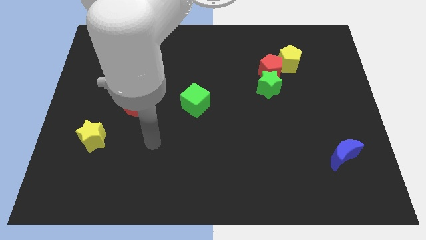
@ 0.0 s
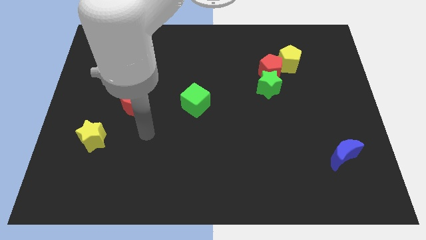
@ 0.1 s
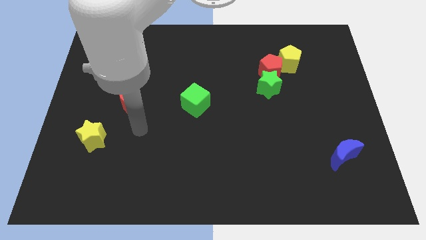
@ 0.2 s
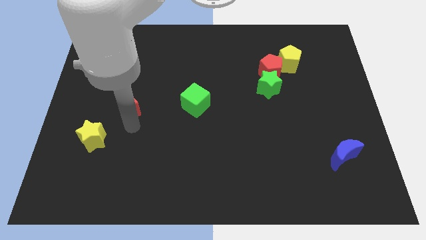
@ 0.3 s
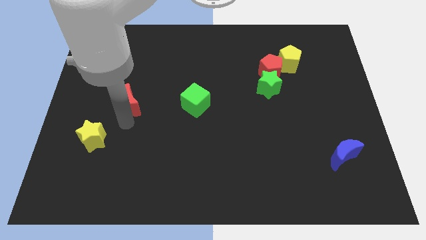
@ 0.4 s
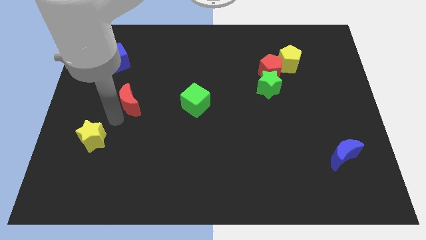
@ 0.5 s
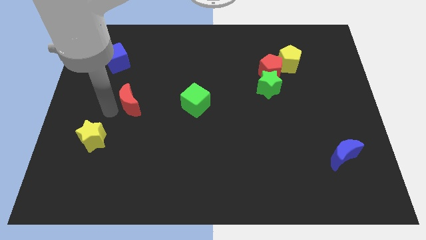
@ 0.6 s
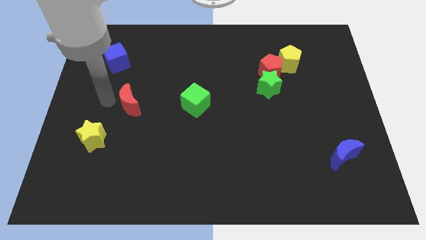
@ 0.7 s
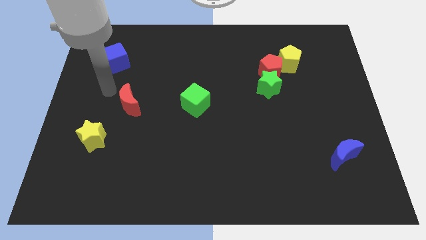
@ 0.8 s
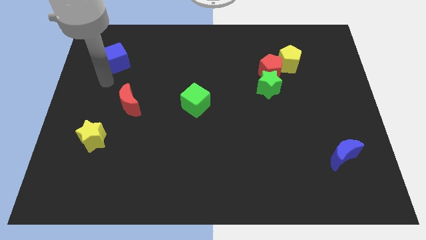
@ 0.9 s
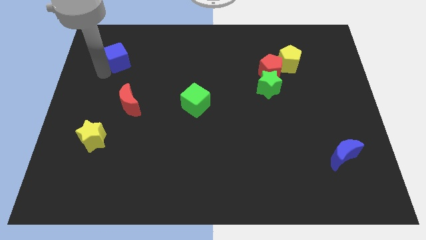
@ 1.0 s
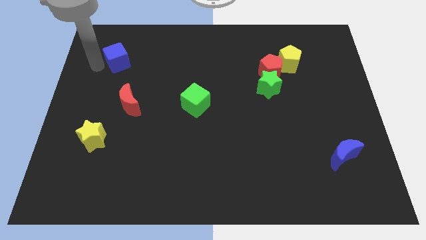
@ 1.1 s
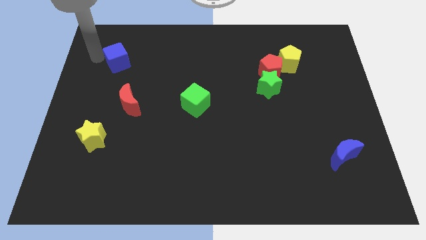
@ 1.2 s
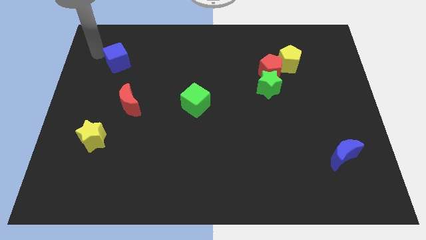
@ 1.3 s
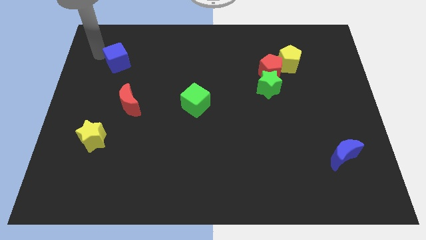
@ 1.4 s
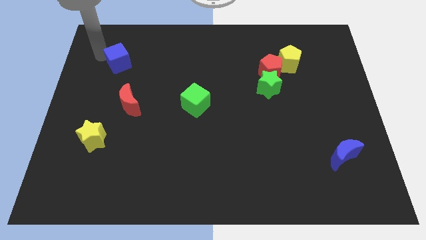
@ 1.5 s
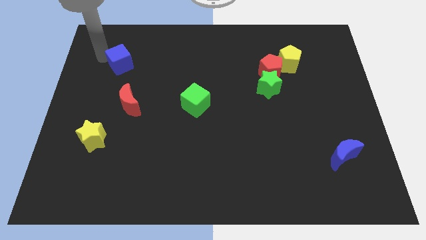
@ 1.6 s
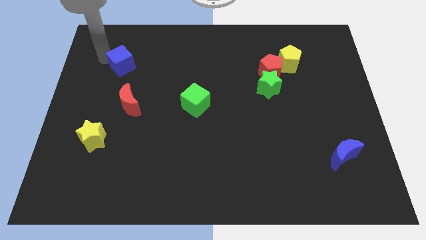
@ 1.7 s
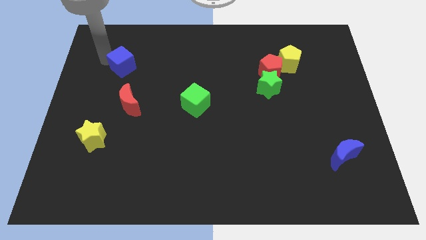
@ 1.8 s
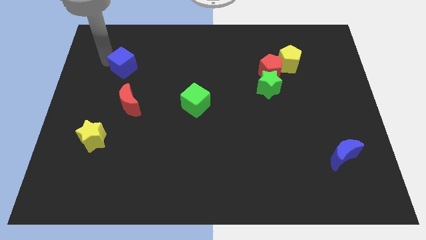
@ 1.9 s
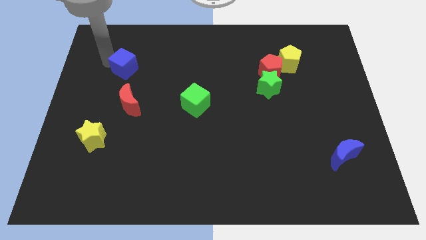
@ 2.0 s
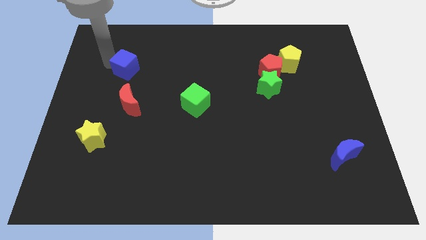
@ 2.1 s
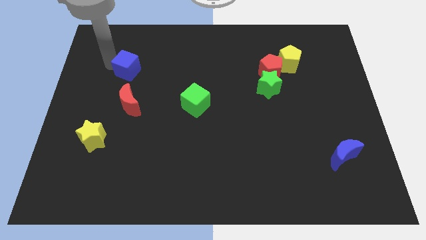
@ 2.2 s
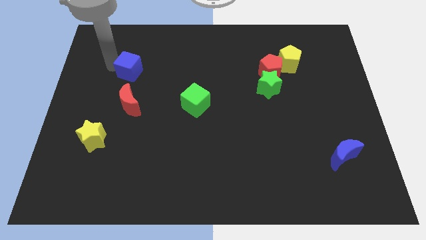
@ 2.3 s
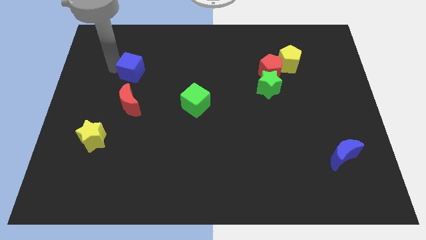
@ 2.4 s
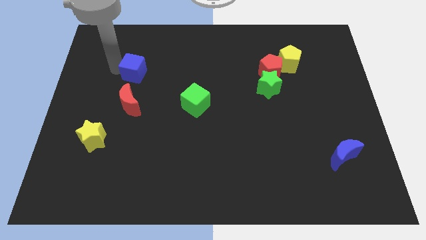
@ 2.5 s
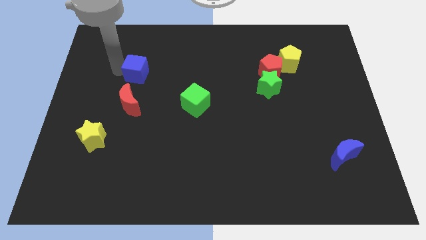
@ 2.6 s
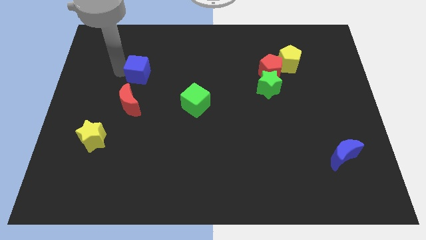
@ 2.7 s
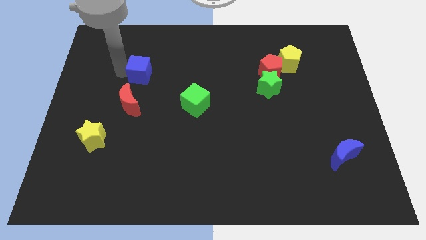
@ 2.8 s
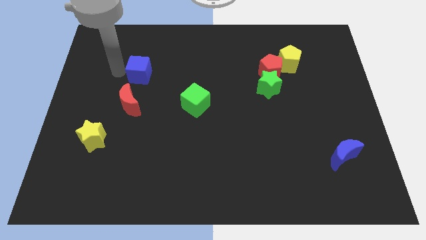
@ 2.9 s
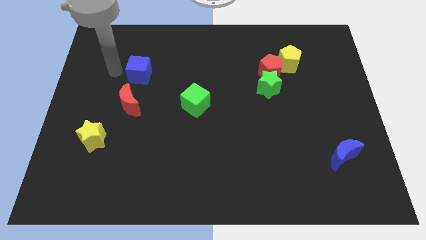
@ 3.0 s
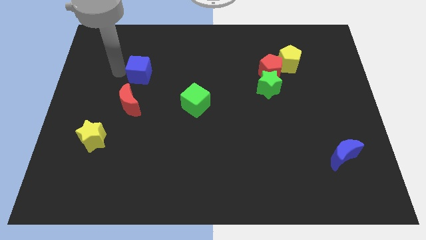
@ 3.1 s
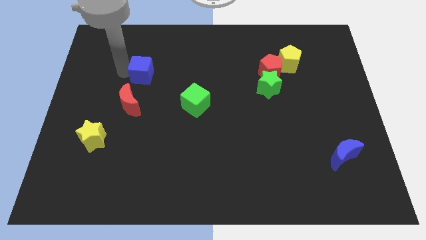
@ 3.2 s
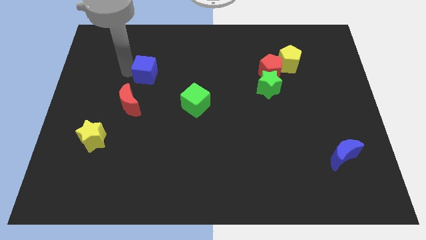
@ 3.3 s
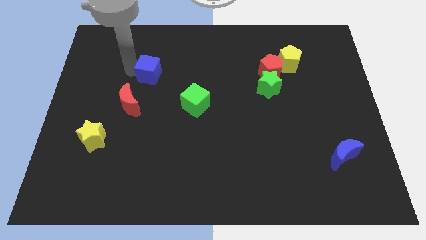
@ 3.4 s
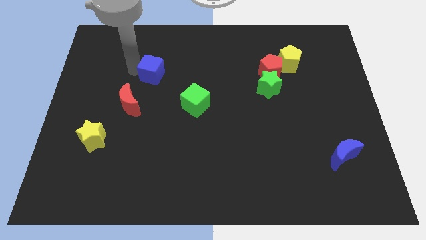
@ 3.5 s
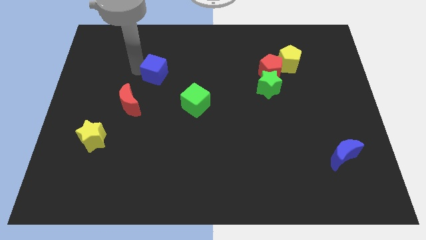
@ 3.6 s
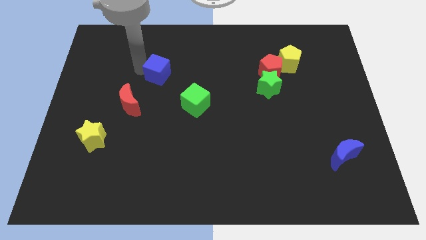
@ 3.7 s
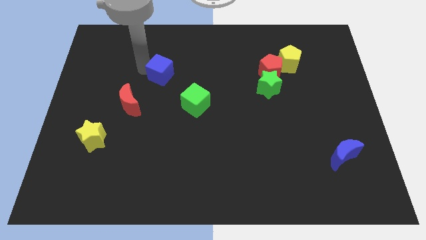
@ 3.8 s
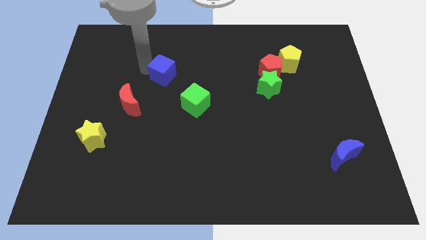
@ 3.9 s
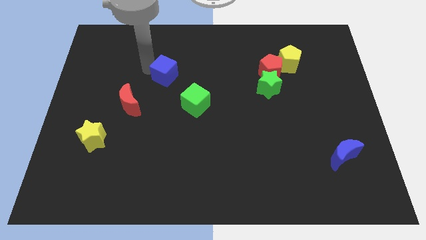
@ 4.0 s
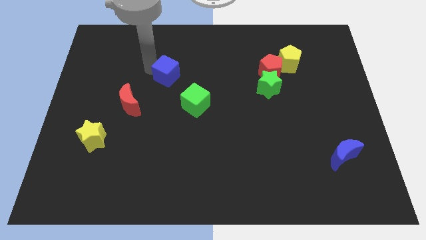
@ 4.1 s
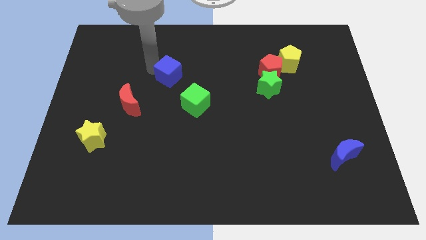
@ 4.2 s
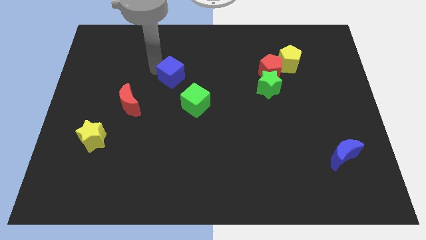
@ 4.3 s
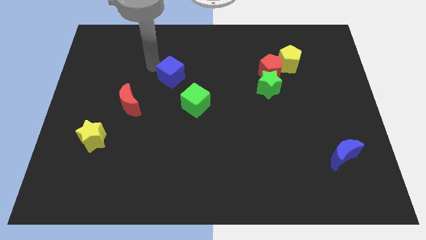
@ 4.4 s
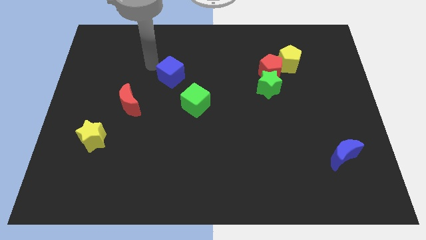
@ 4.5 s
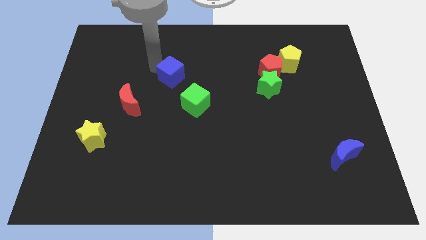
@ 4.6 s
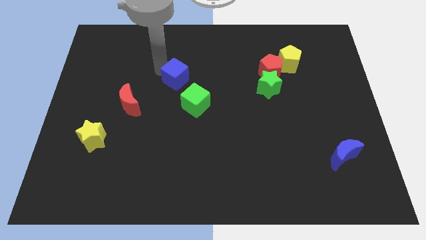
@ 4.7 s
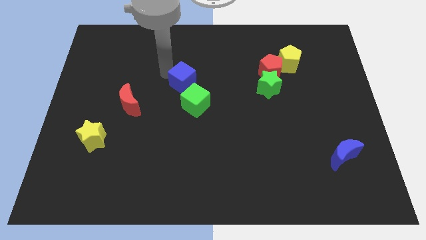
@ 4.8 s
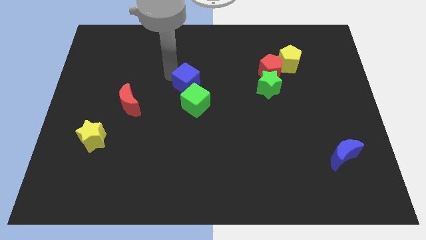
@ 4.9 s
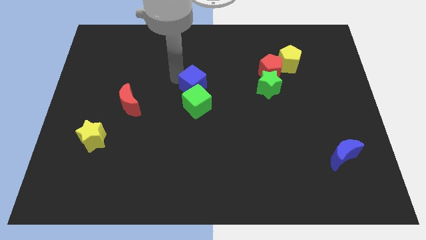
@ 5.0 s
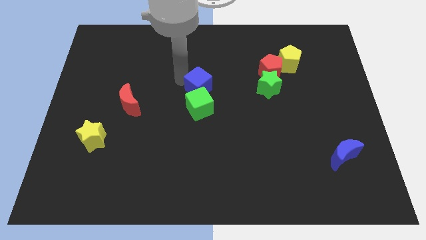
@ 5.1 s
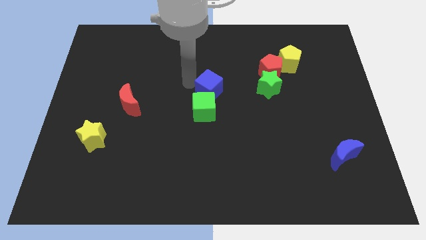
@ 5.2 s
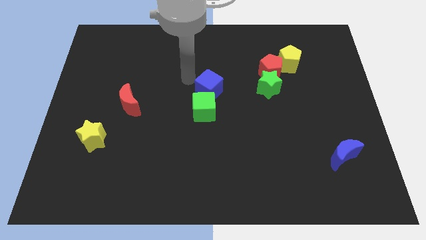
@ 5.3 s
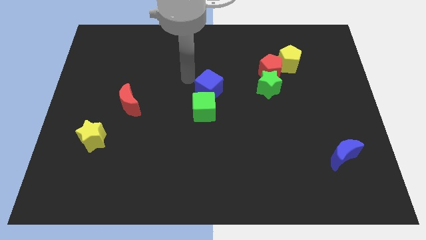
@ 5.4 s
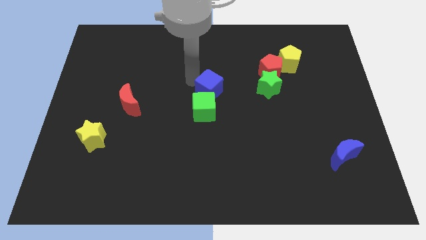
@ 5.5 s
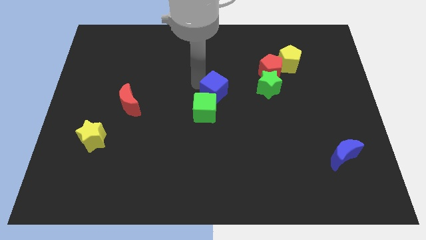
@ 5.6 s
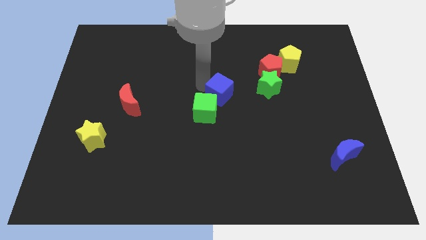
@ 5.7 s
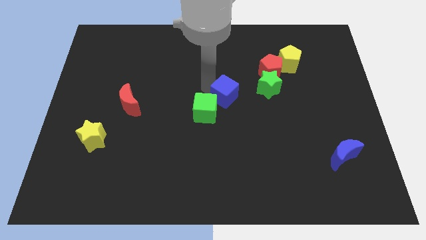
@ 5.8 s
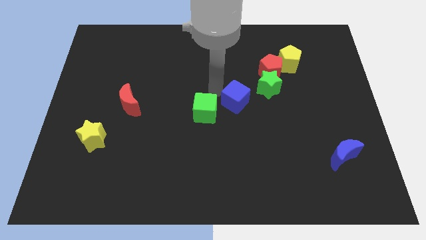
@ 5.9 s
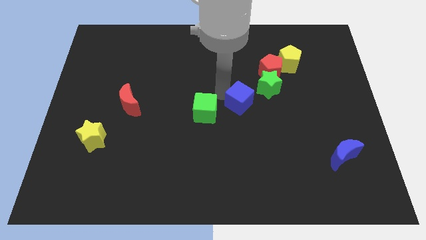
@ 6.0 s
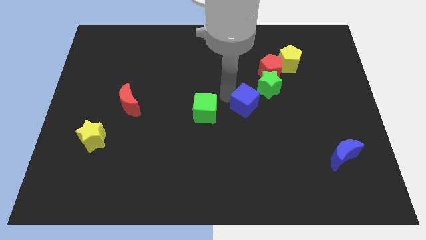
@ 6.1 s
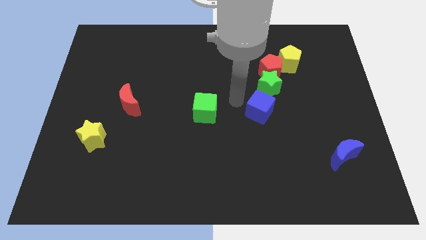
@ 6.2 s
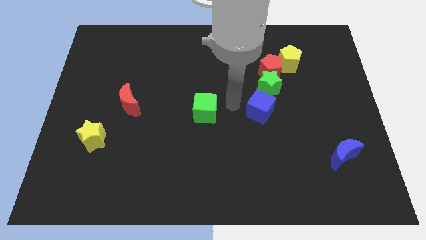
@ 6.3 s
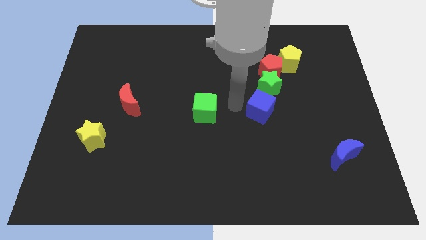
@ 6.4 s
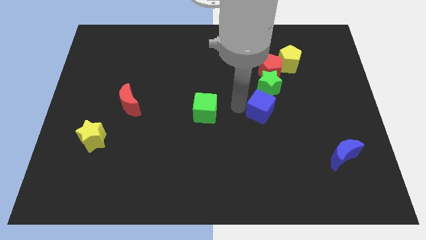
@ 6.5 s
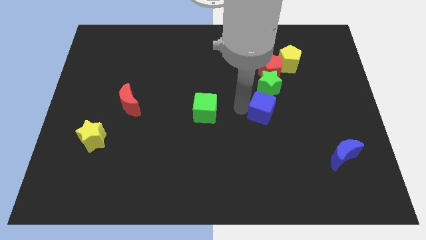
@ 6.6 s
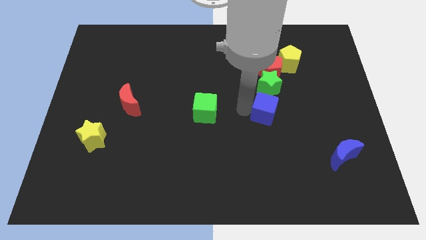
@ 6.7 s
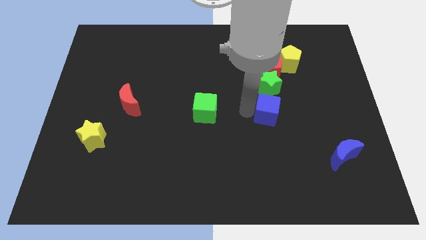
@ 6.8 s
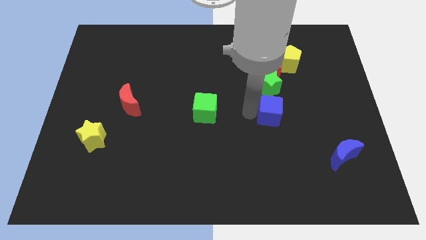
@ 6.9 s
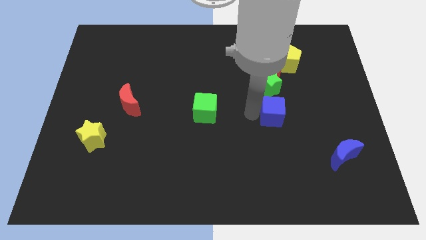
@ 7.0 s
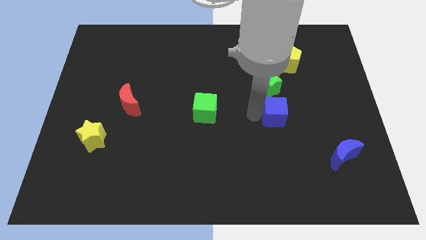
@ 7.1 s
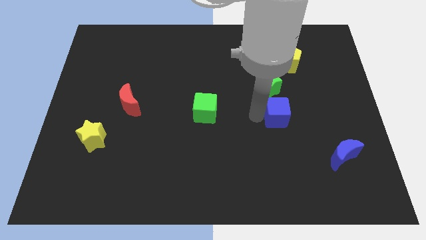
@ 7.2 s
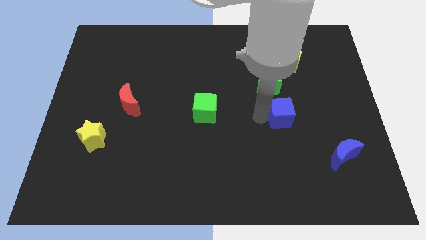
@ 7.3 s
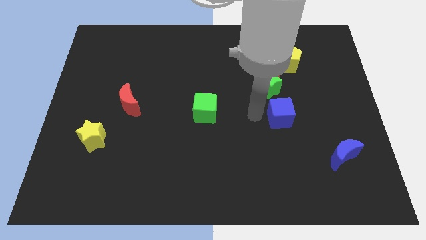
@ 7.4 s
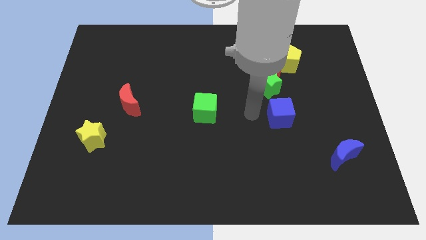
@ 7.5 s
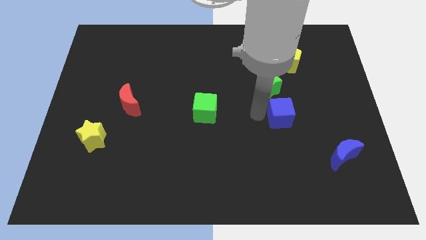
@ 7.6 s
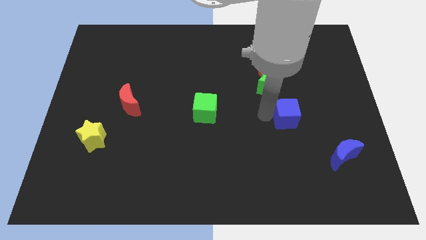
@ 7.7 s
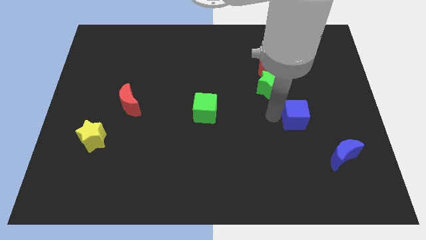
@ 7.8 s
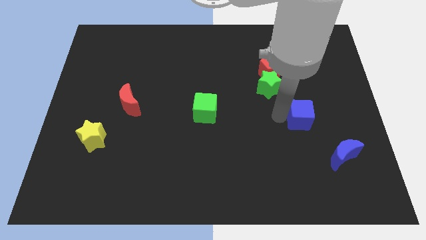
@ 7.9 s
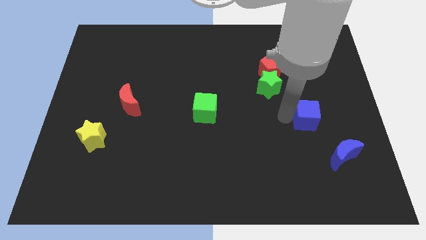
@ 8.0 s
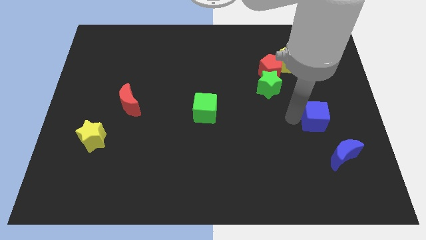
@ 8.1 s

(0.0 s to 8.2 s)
put the blue cube above the blue moon
